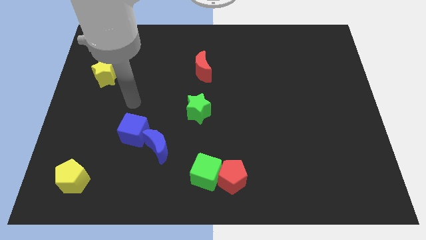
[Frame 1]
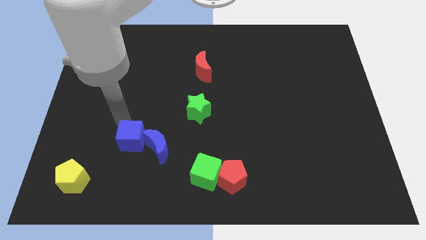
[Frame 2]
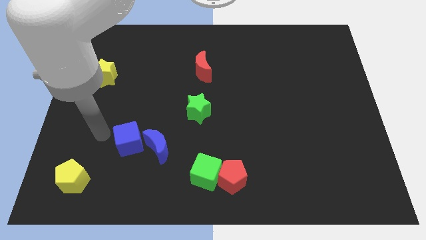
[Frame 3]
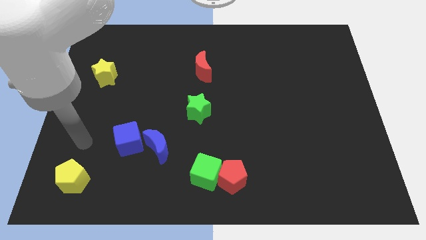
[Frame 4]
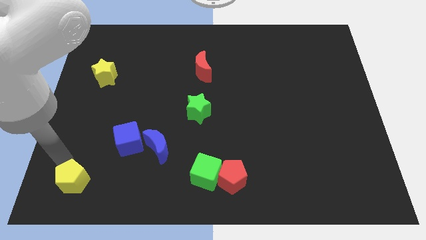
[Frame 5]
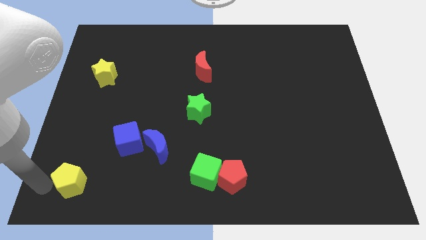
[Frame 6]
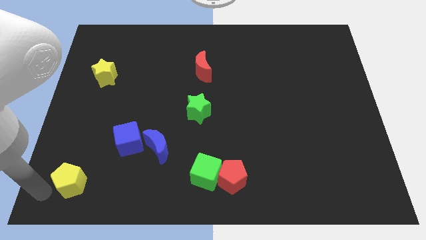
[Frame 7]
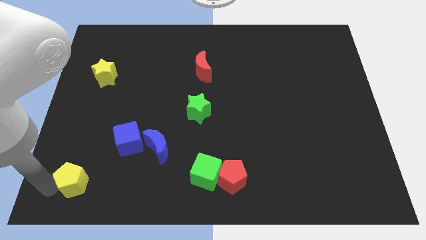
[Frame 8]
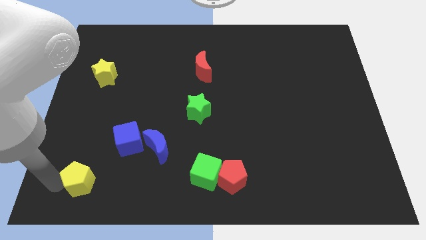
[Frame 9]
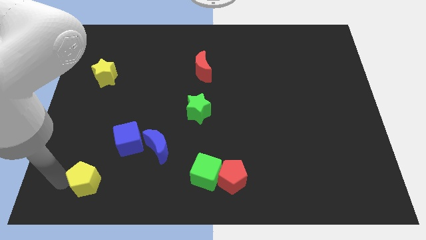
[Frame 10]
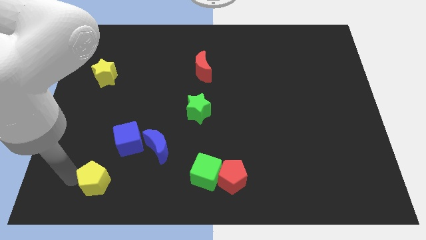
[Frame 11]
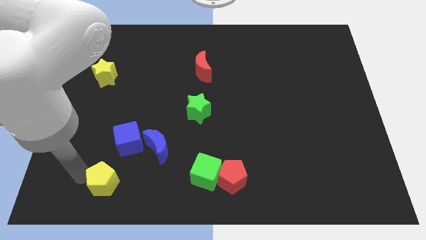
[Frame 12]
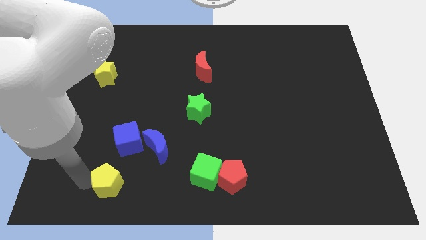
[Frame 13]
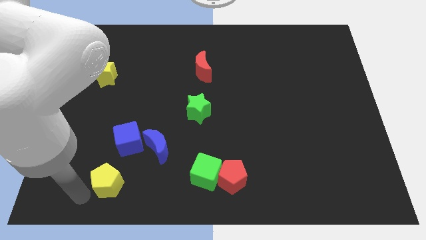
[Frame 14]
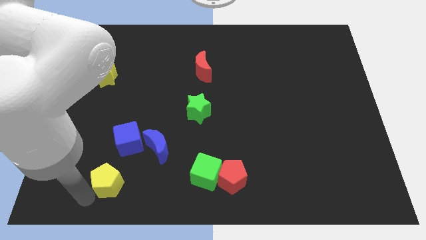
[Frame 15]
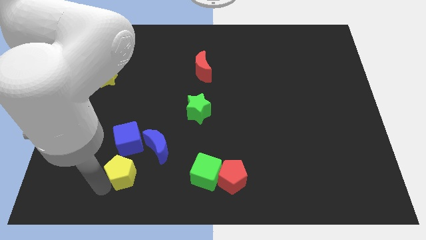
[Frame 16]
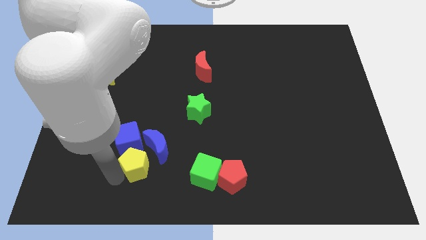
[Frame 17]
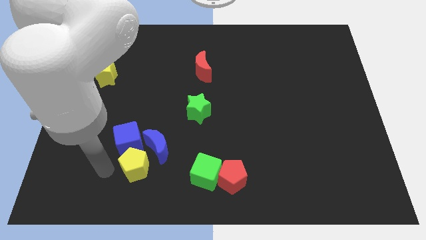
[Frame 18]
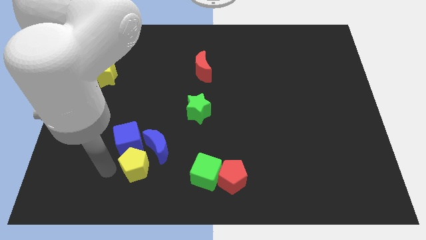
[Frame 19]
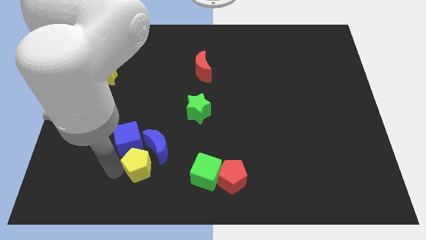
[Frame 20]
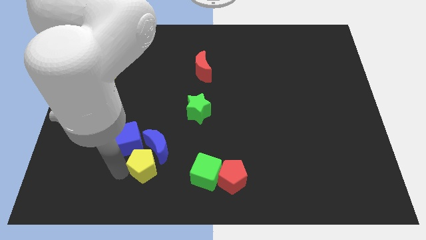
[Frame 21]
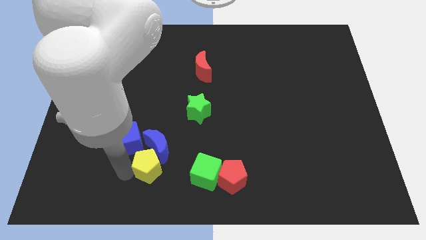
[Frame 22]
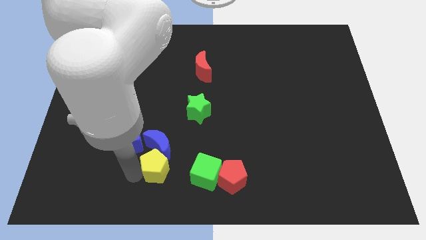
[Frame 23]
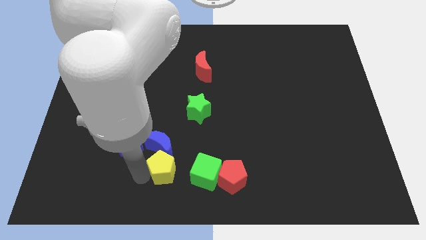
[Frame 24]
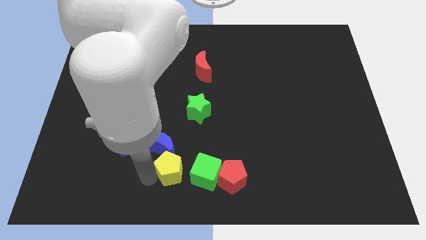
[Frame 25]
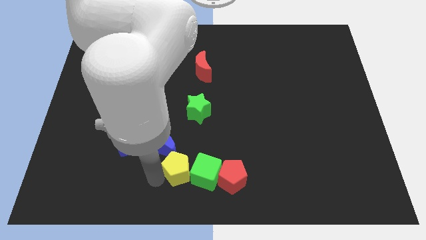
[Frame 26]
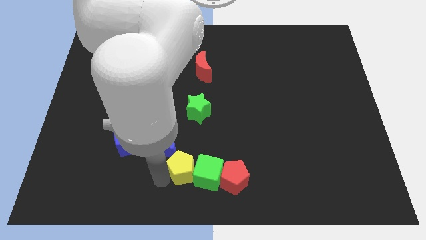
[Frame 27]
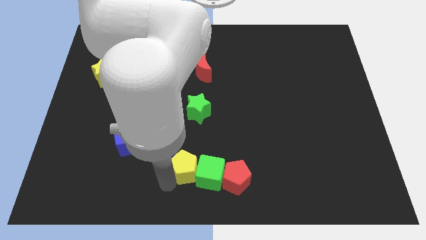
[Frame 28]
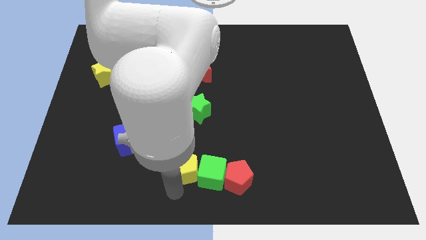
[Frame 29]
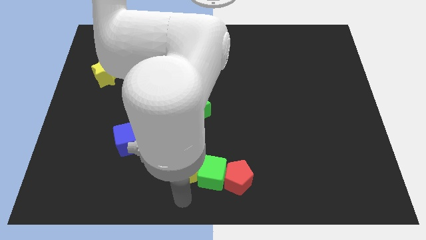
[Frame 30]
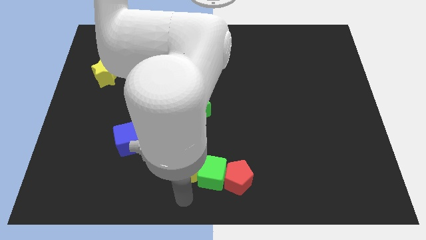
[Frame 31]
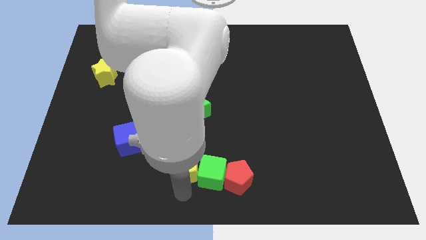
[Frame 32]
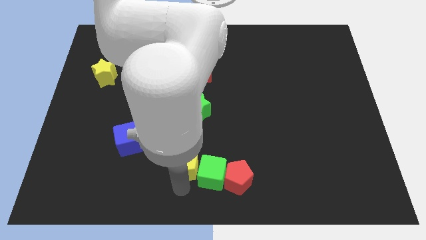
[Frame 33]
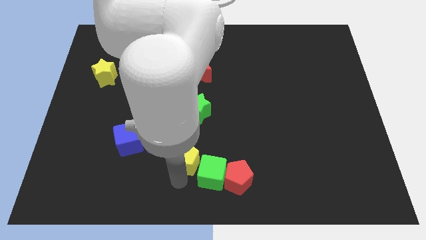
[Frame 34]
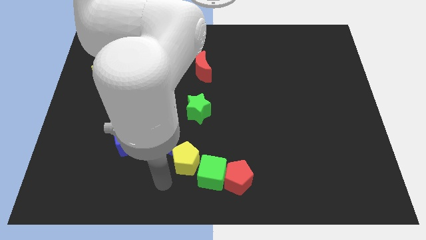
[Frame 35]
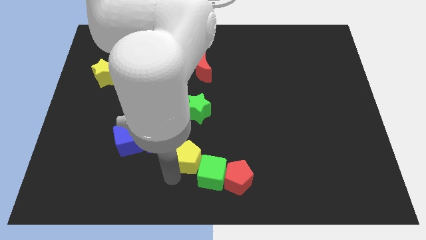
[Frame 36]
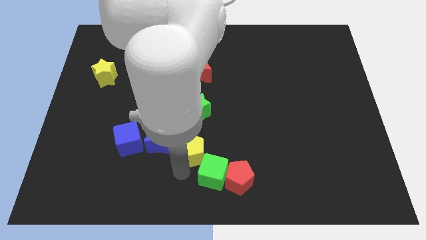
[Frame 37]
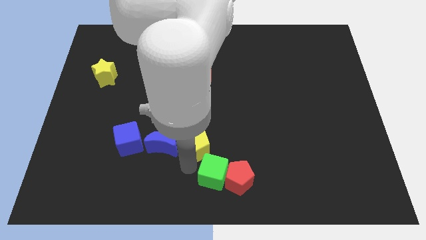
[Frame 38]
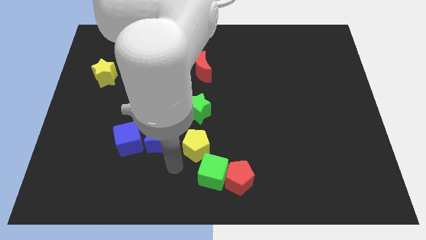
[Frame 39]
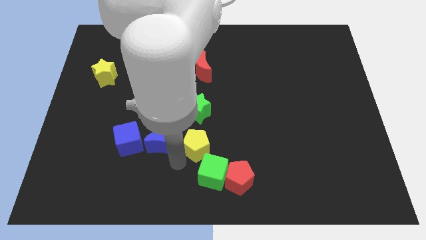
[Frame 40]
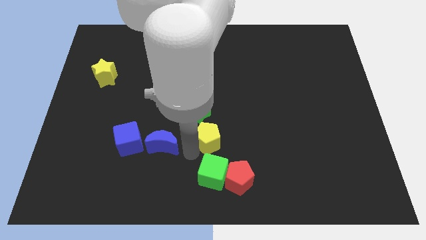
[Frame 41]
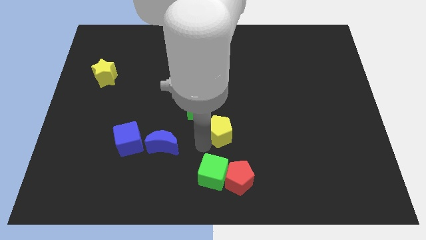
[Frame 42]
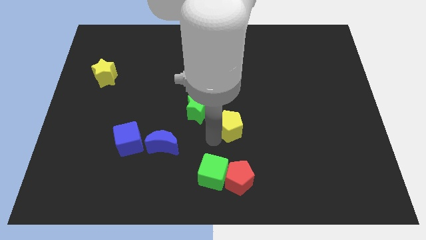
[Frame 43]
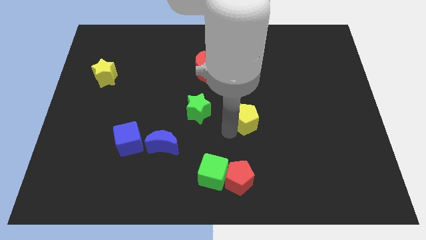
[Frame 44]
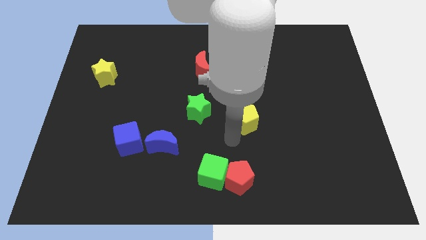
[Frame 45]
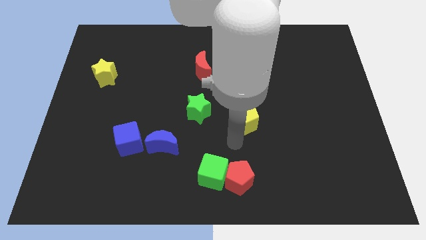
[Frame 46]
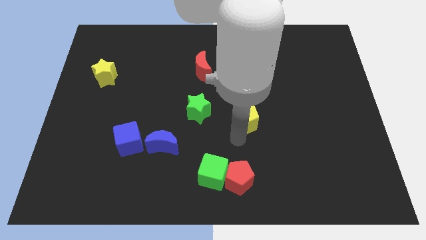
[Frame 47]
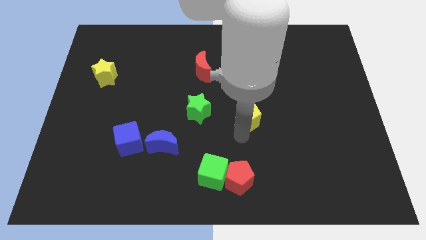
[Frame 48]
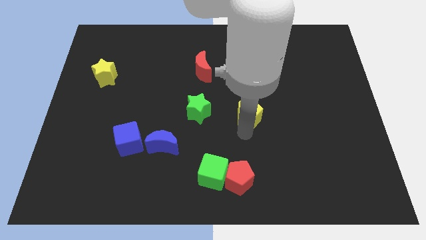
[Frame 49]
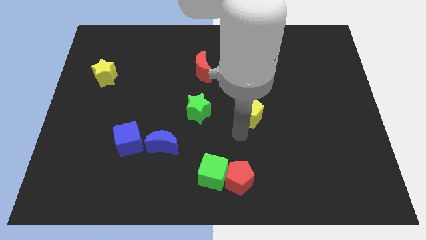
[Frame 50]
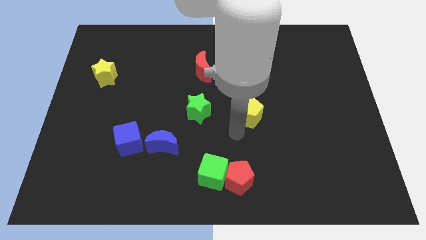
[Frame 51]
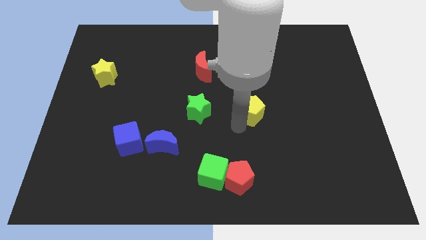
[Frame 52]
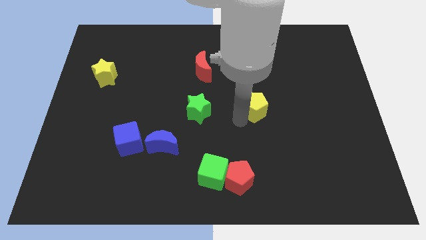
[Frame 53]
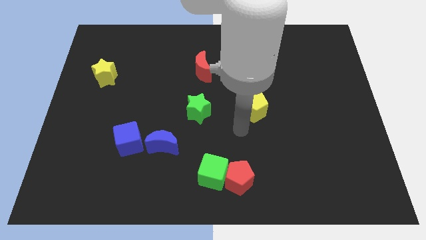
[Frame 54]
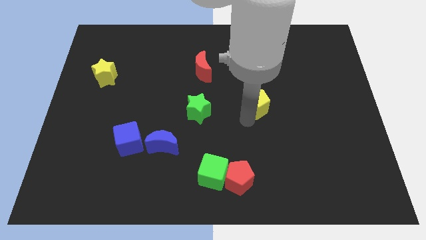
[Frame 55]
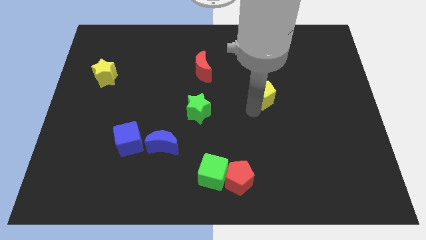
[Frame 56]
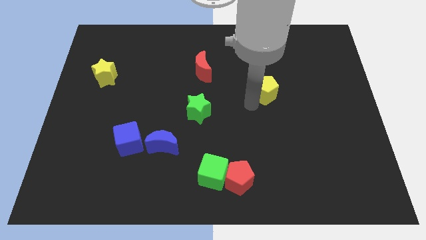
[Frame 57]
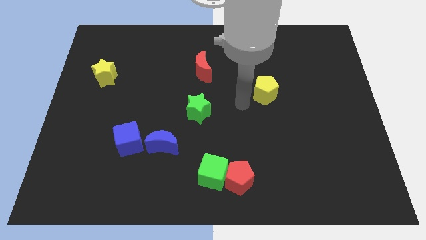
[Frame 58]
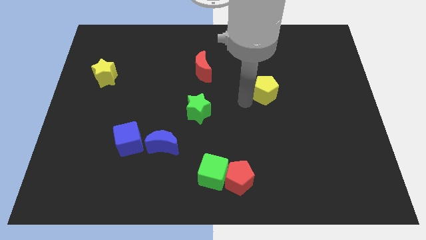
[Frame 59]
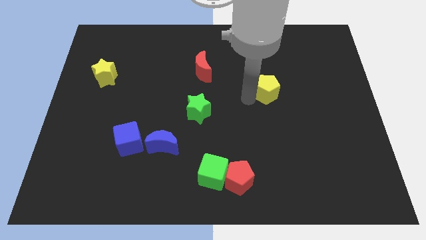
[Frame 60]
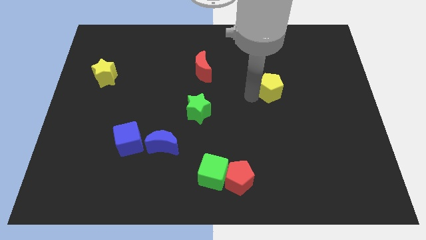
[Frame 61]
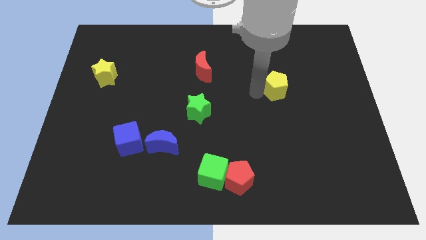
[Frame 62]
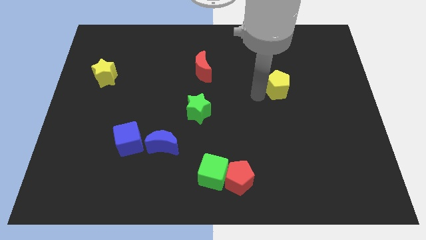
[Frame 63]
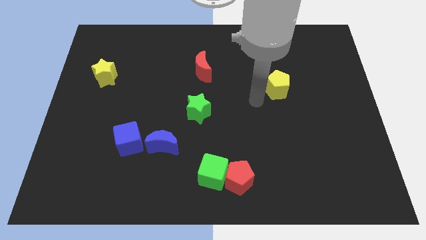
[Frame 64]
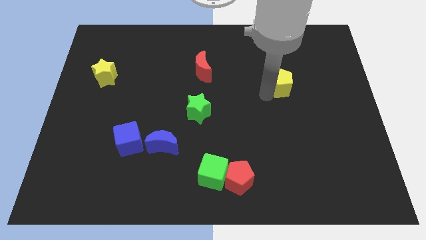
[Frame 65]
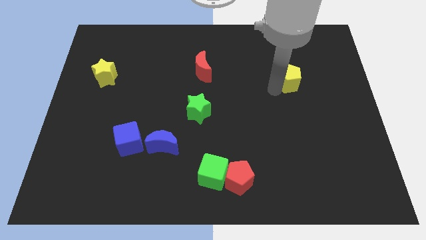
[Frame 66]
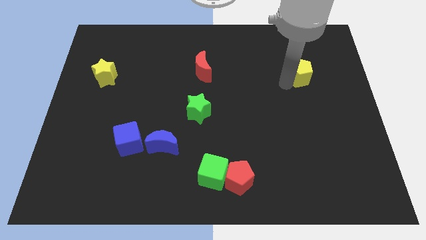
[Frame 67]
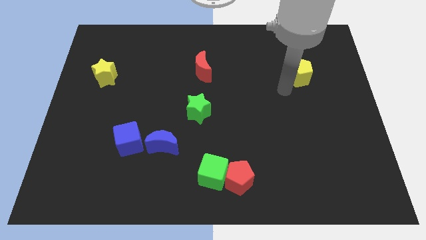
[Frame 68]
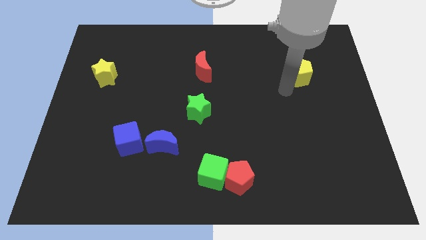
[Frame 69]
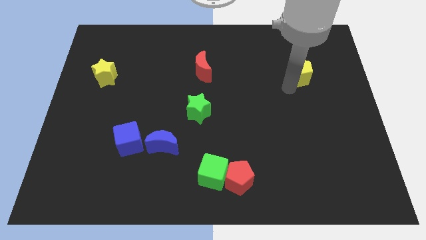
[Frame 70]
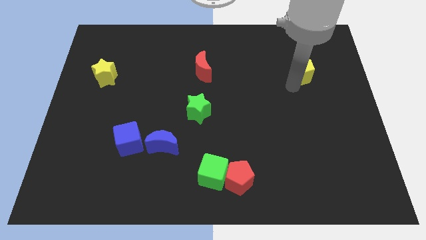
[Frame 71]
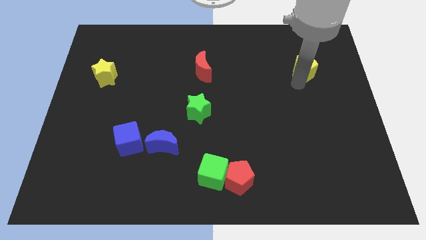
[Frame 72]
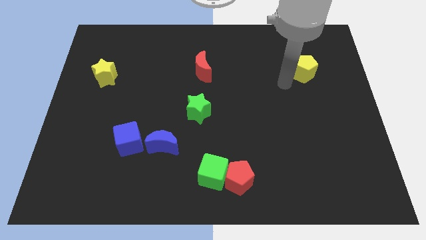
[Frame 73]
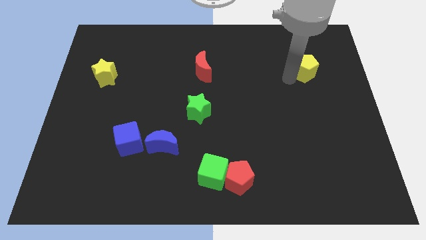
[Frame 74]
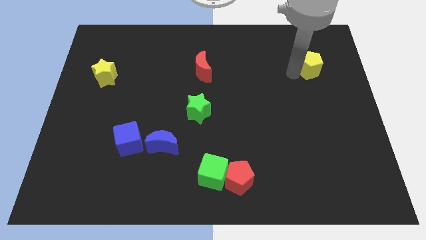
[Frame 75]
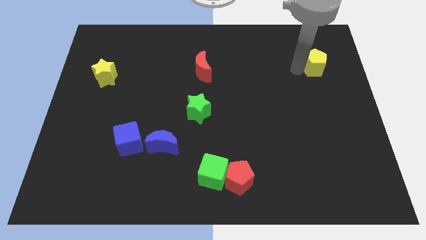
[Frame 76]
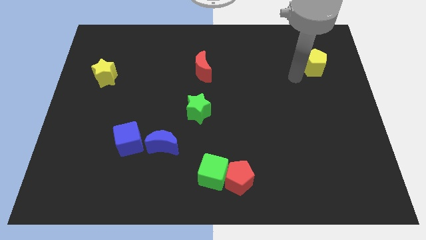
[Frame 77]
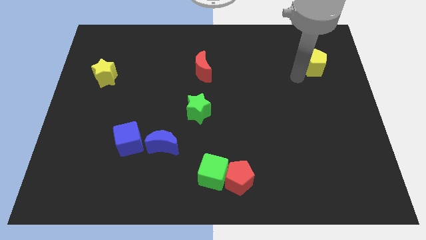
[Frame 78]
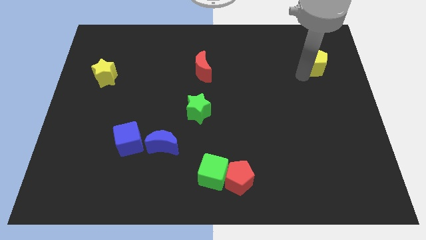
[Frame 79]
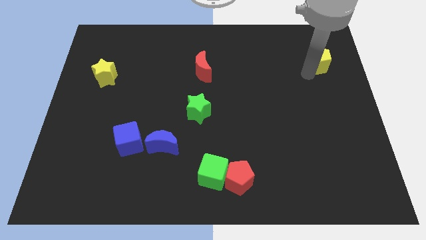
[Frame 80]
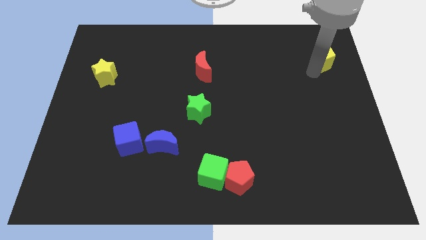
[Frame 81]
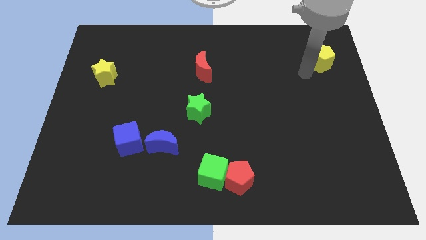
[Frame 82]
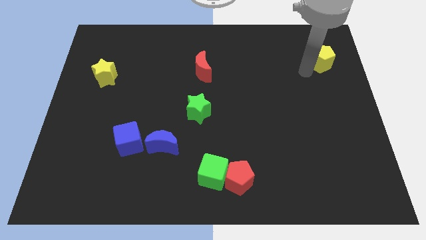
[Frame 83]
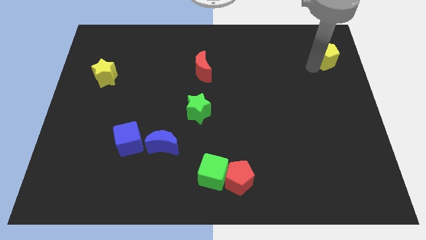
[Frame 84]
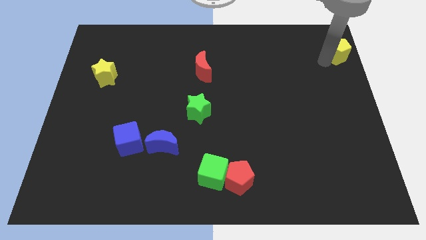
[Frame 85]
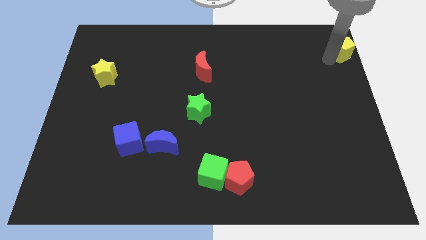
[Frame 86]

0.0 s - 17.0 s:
push the yellow pentagon to the top right of the board
